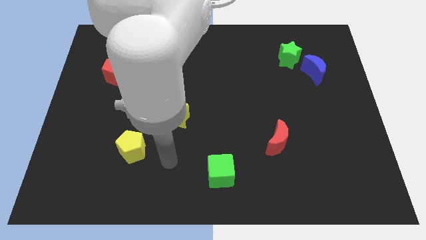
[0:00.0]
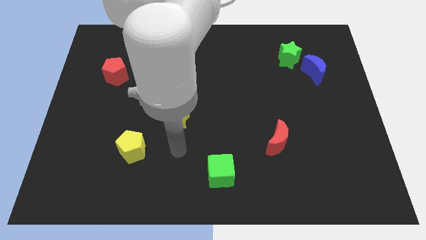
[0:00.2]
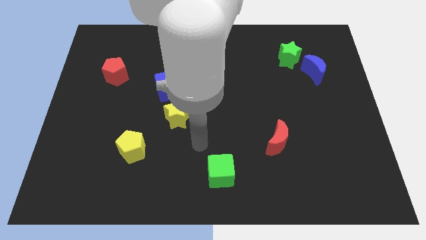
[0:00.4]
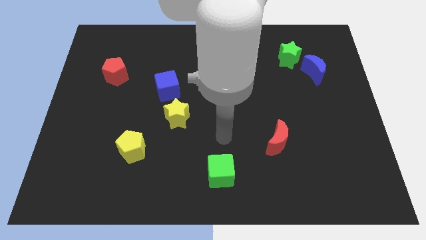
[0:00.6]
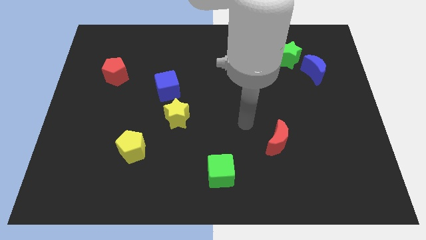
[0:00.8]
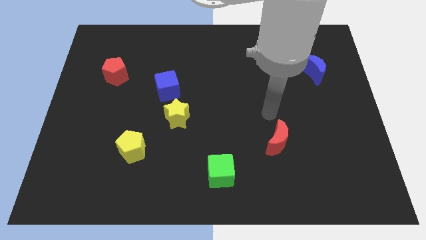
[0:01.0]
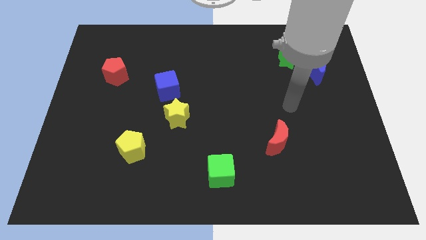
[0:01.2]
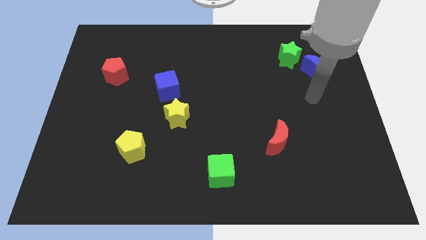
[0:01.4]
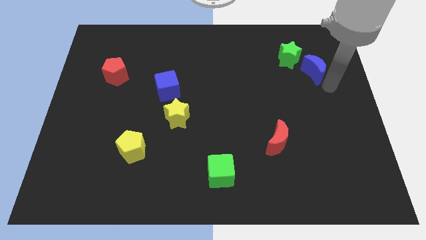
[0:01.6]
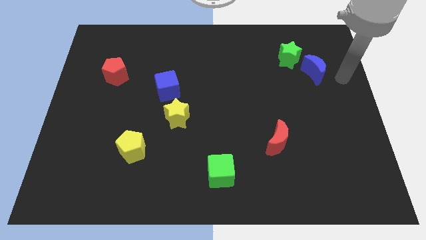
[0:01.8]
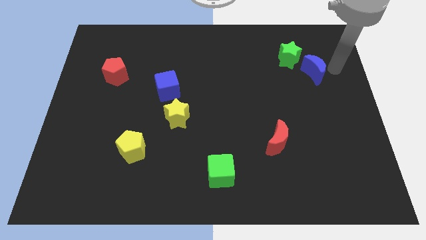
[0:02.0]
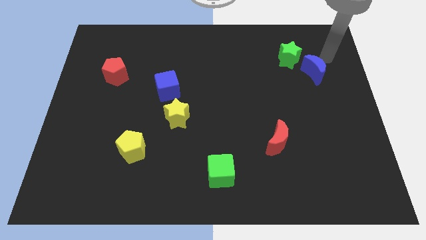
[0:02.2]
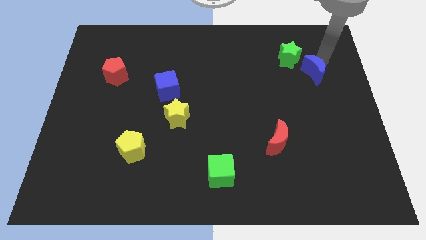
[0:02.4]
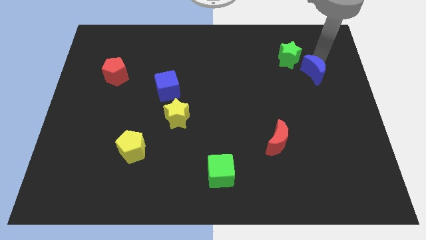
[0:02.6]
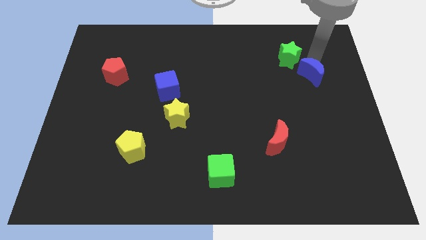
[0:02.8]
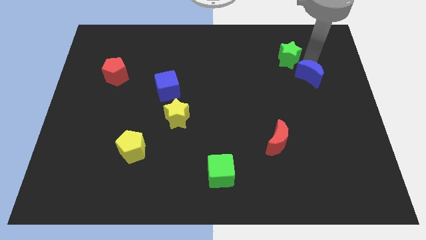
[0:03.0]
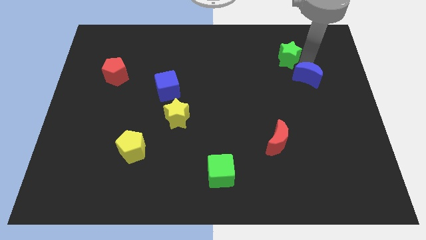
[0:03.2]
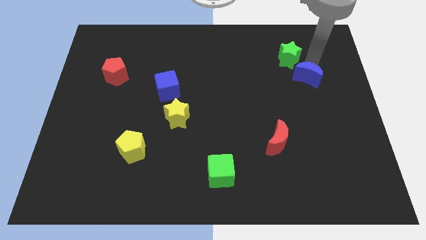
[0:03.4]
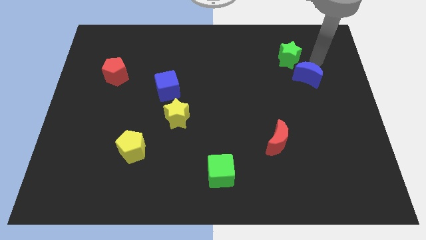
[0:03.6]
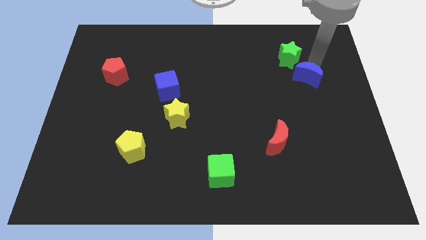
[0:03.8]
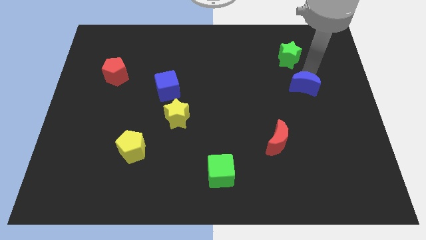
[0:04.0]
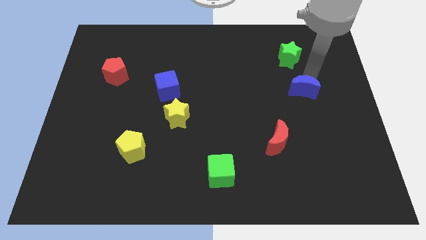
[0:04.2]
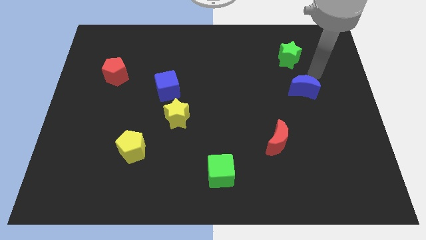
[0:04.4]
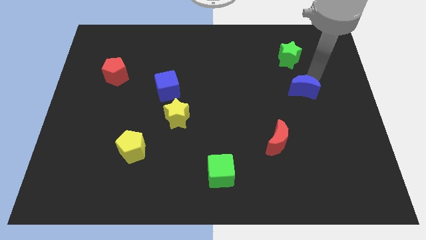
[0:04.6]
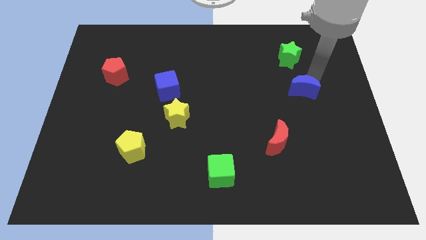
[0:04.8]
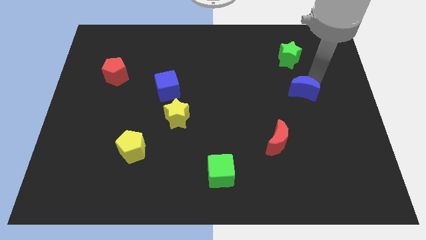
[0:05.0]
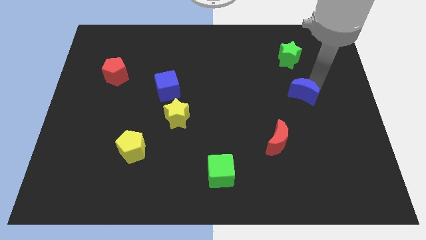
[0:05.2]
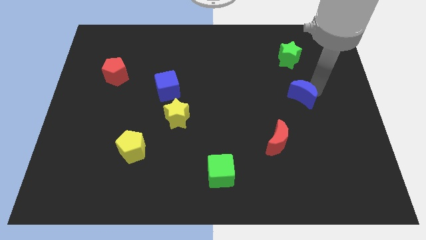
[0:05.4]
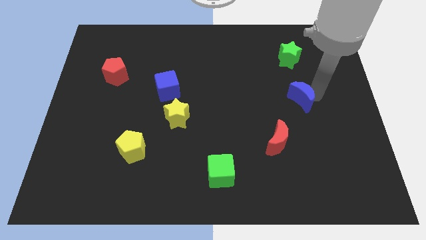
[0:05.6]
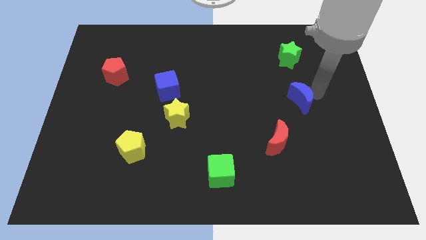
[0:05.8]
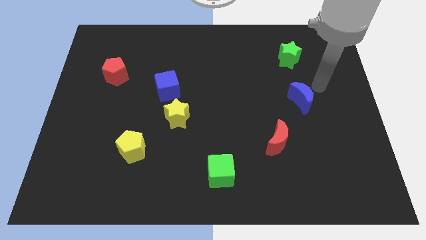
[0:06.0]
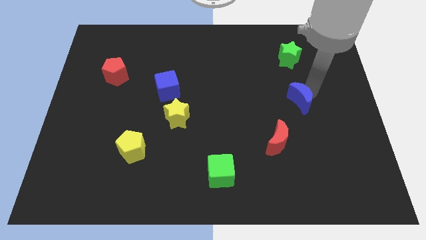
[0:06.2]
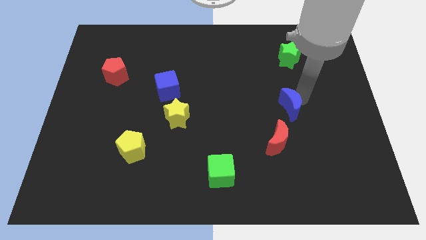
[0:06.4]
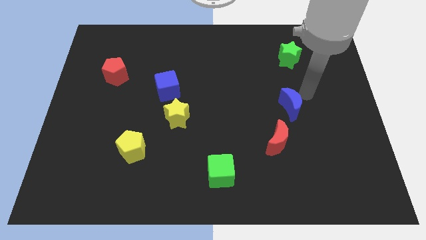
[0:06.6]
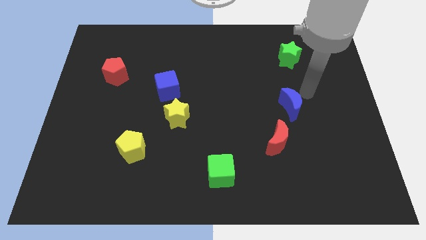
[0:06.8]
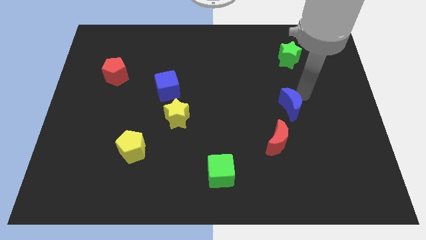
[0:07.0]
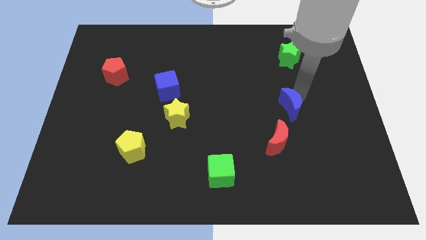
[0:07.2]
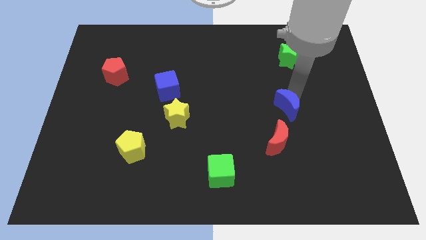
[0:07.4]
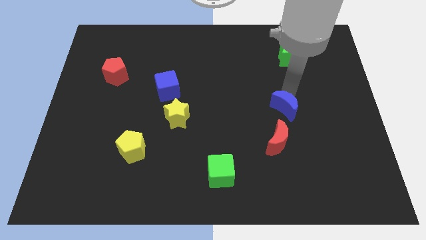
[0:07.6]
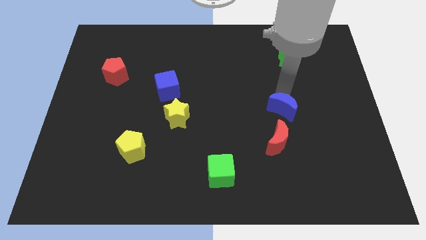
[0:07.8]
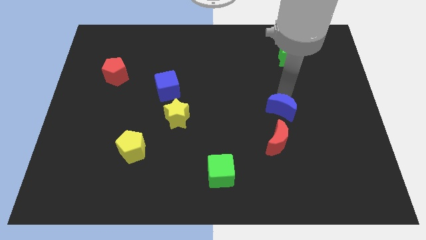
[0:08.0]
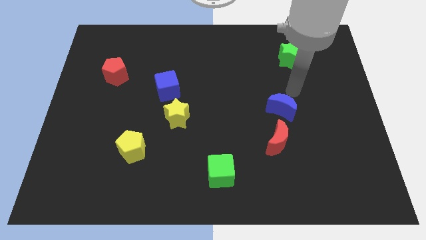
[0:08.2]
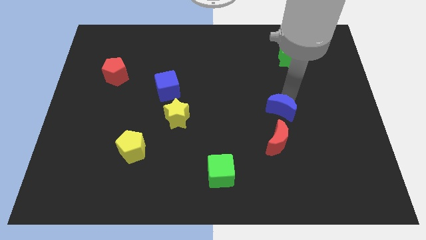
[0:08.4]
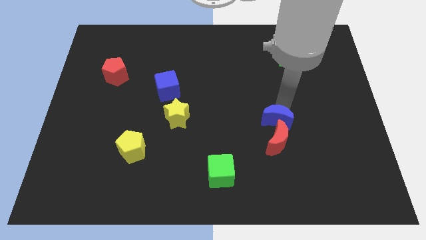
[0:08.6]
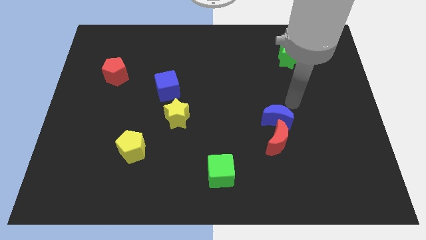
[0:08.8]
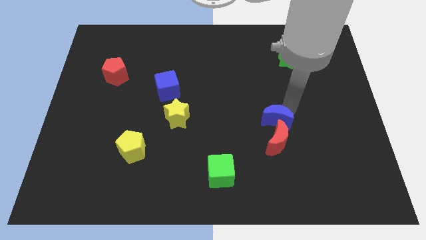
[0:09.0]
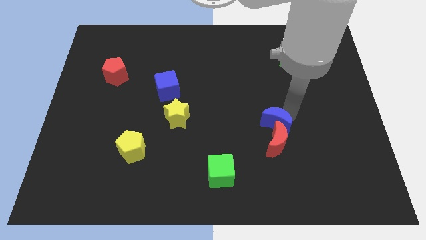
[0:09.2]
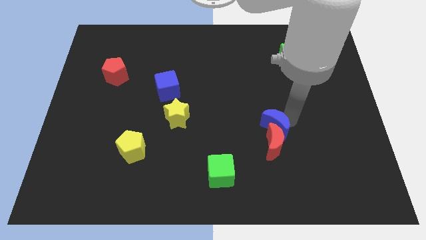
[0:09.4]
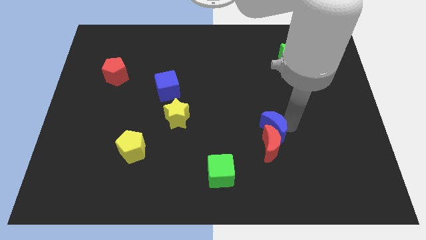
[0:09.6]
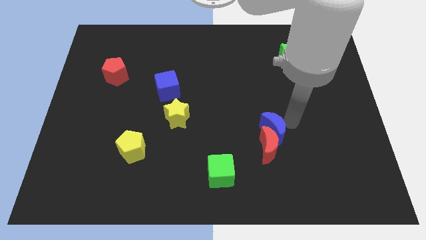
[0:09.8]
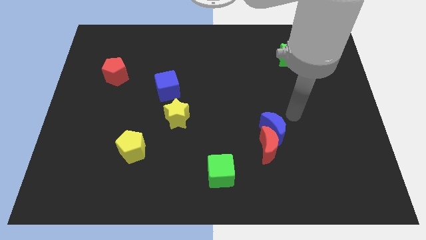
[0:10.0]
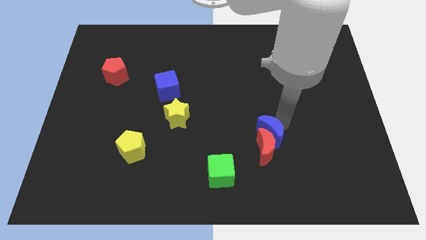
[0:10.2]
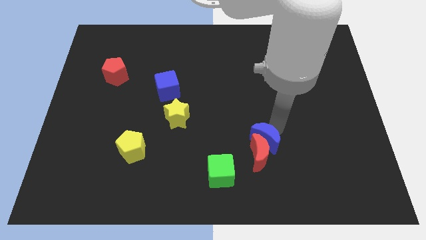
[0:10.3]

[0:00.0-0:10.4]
move the blue moon diagonally up and to the right of the green cube

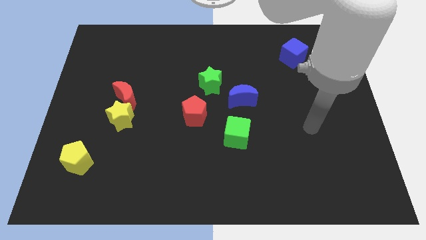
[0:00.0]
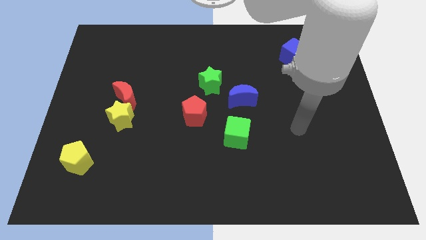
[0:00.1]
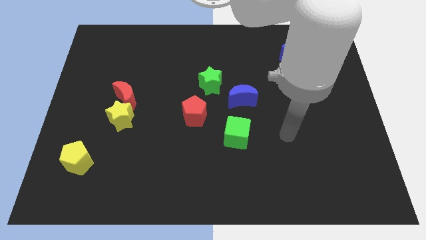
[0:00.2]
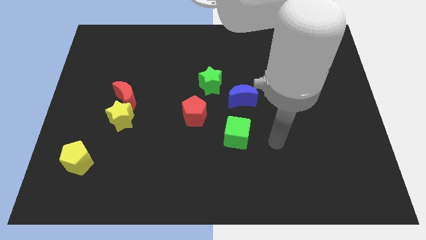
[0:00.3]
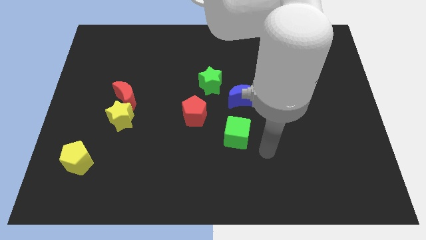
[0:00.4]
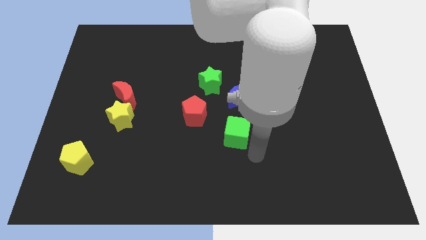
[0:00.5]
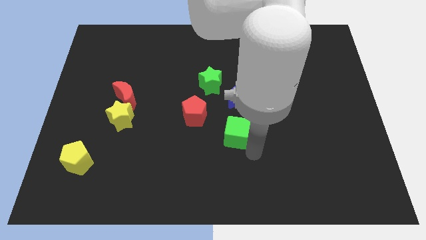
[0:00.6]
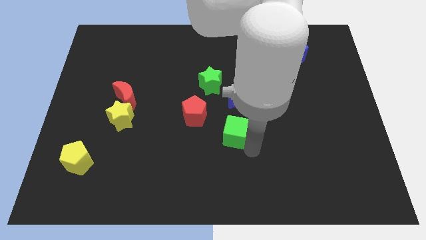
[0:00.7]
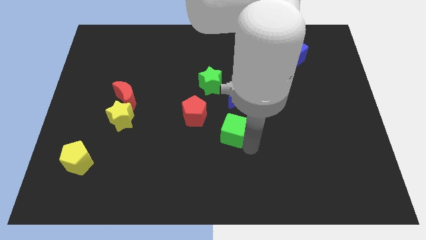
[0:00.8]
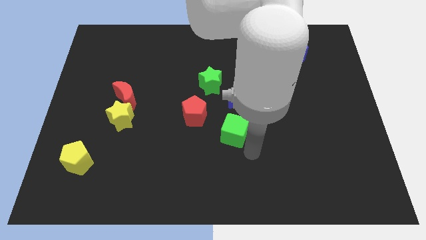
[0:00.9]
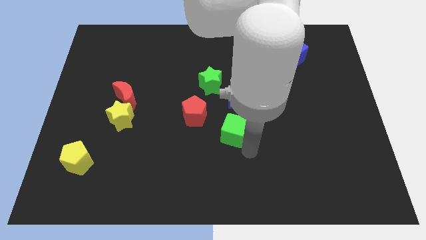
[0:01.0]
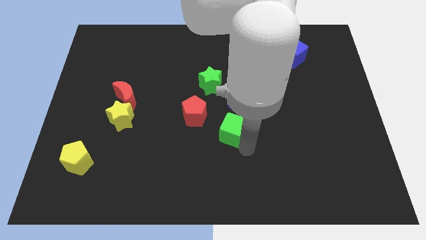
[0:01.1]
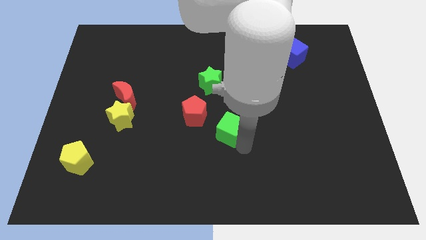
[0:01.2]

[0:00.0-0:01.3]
move the green cube to the bottom left of the blue moon
